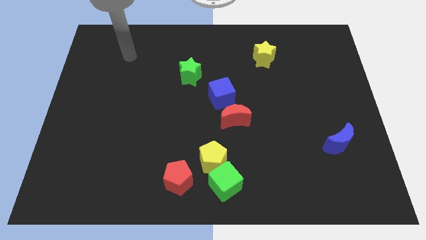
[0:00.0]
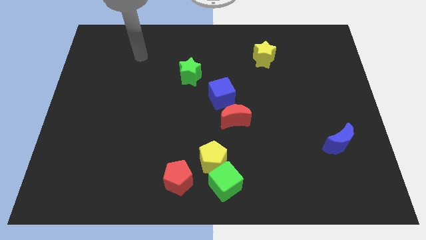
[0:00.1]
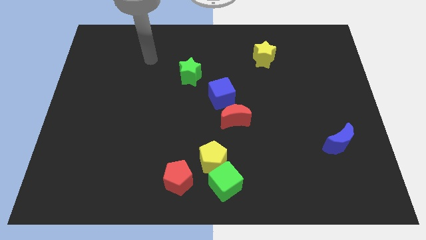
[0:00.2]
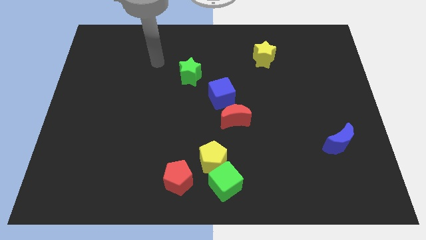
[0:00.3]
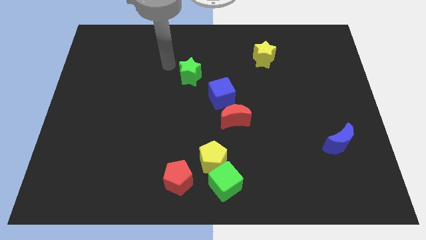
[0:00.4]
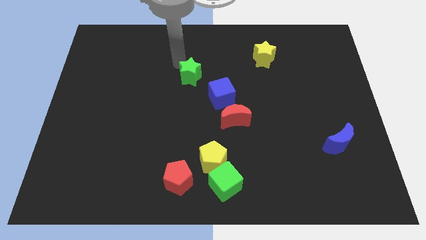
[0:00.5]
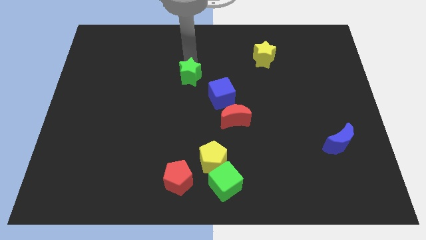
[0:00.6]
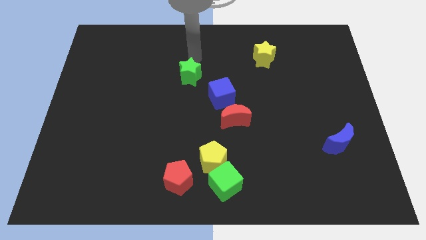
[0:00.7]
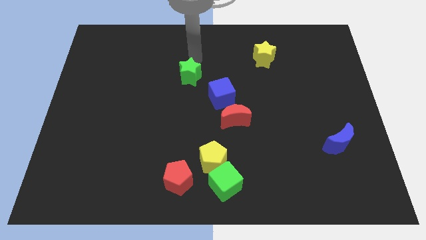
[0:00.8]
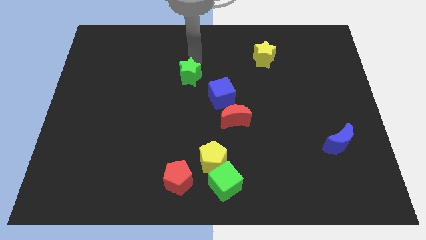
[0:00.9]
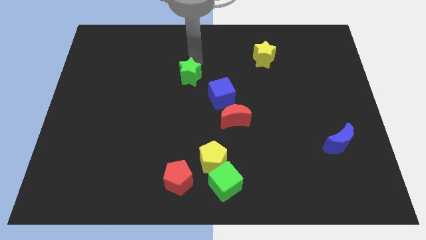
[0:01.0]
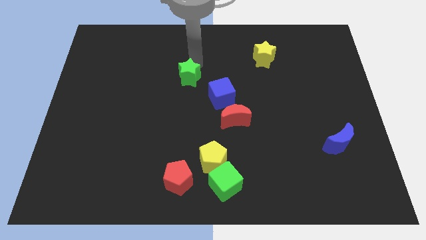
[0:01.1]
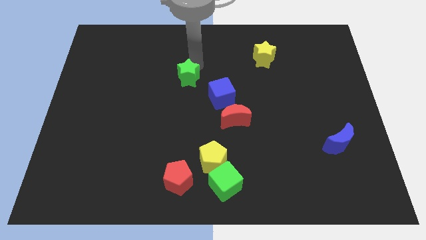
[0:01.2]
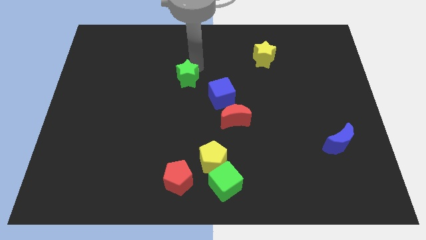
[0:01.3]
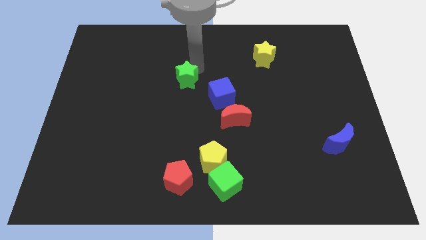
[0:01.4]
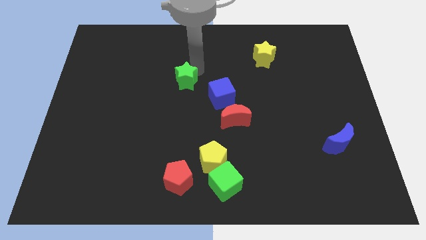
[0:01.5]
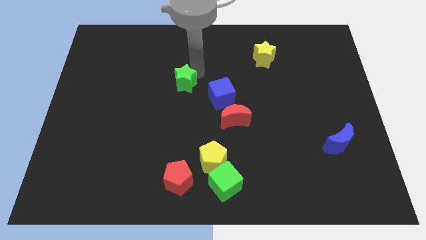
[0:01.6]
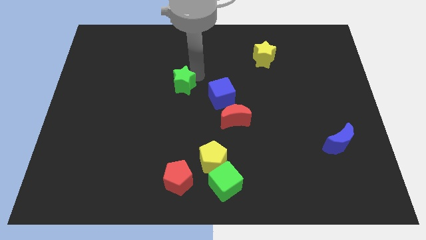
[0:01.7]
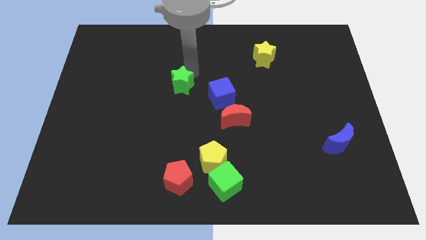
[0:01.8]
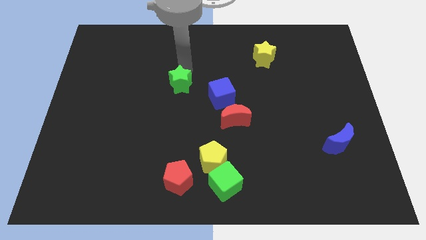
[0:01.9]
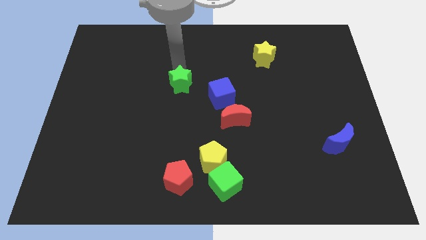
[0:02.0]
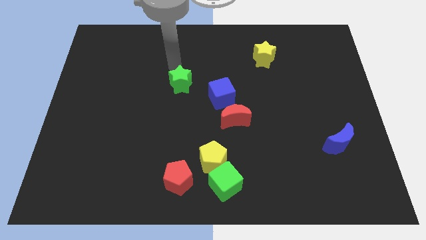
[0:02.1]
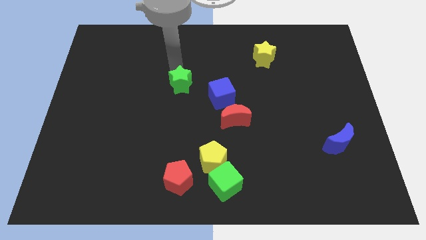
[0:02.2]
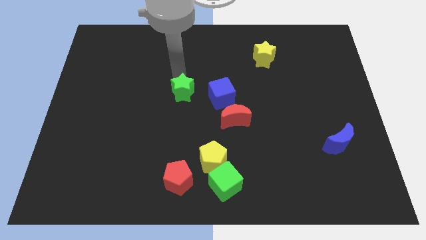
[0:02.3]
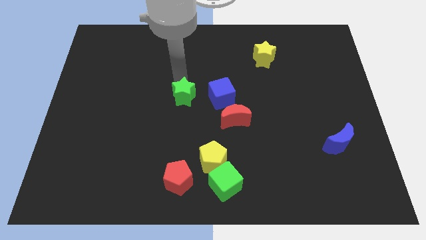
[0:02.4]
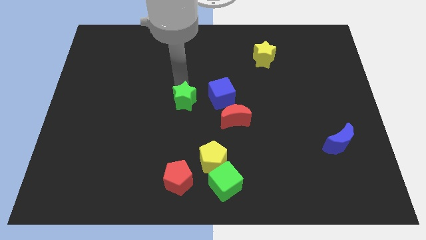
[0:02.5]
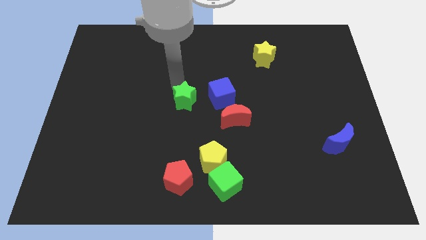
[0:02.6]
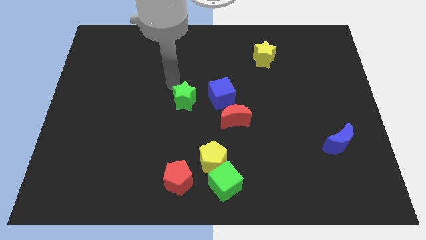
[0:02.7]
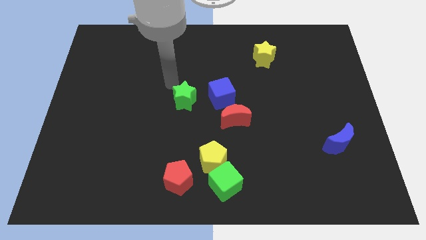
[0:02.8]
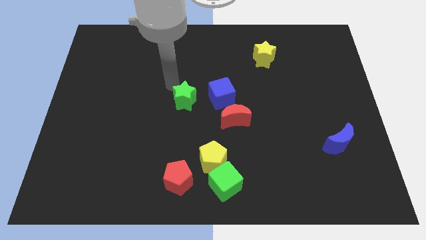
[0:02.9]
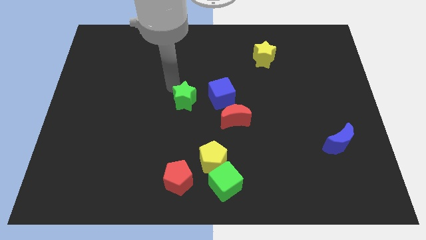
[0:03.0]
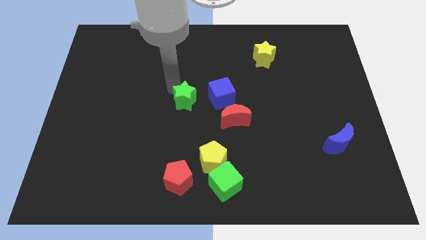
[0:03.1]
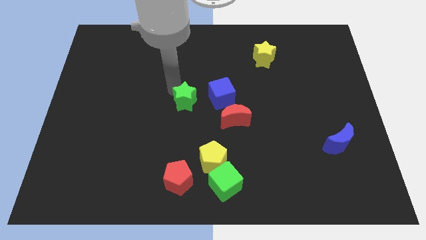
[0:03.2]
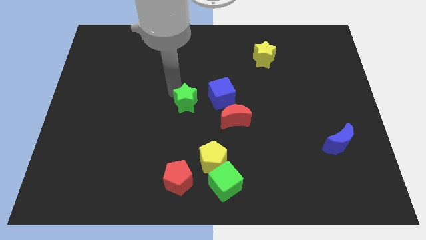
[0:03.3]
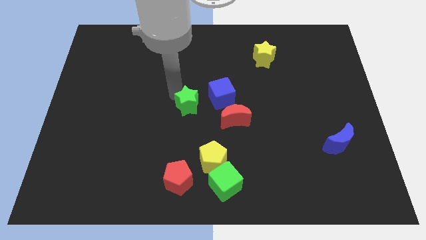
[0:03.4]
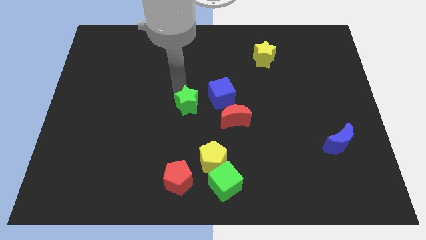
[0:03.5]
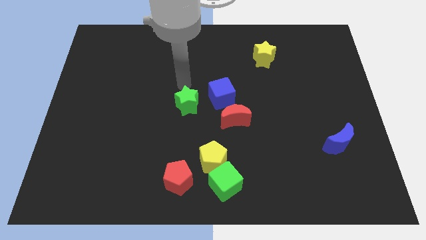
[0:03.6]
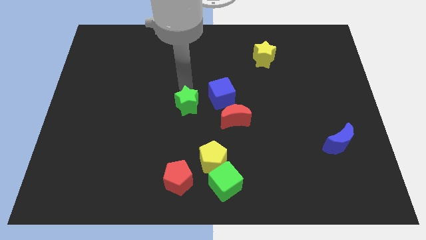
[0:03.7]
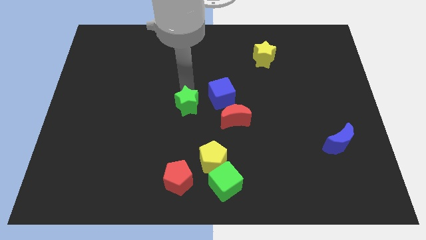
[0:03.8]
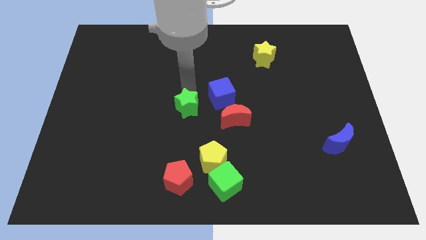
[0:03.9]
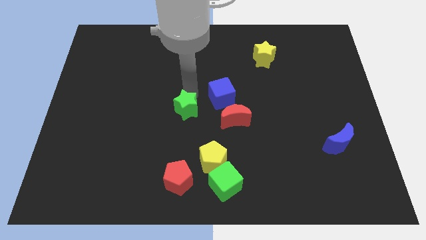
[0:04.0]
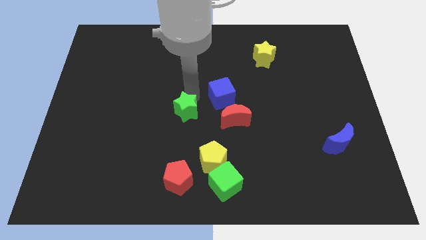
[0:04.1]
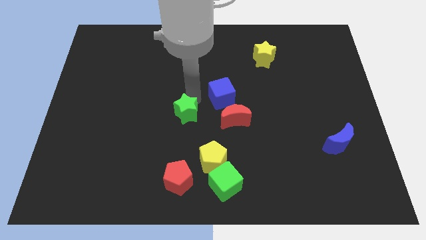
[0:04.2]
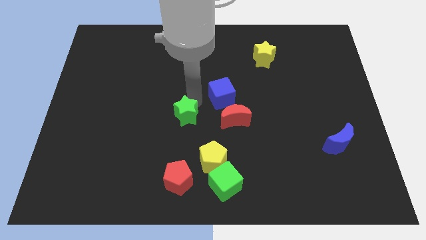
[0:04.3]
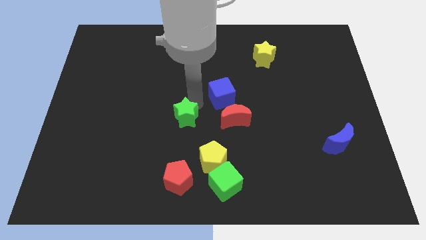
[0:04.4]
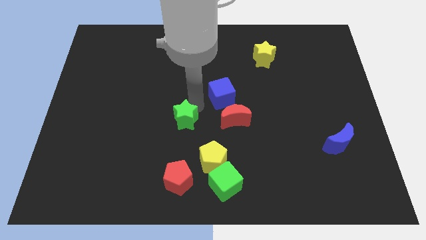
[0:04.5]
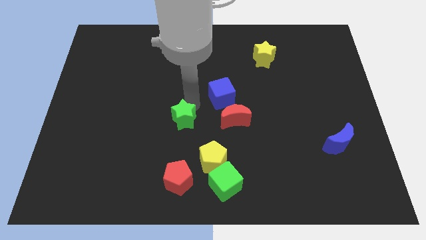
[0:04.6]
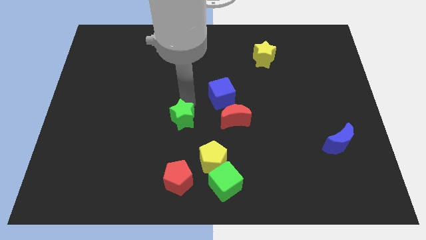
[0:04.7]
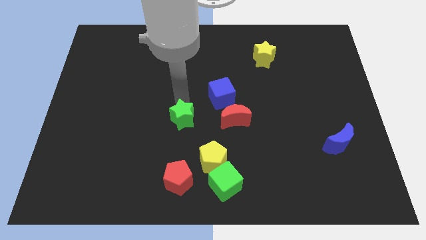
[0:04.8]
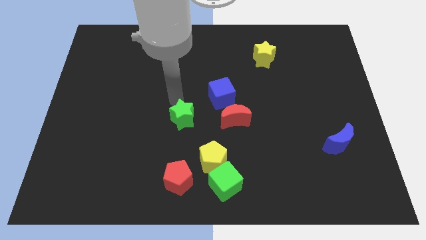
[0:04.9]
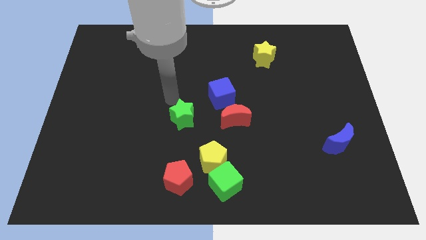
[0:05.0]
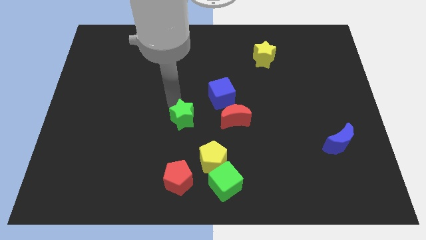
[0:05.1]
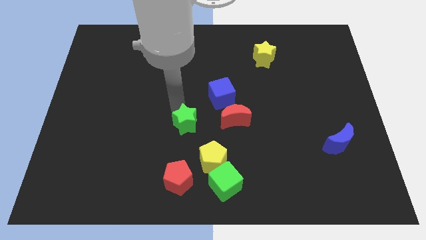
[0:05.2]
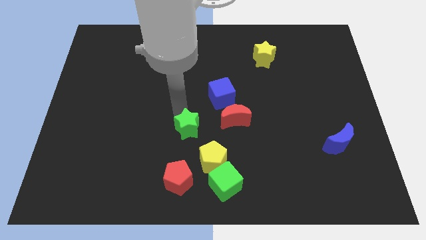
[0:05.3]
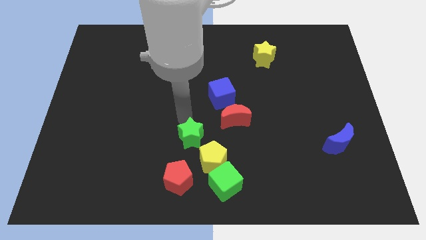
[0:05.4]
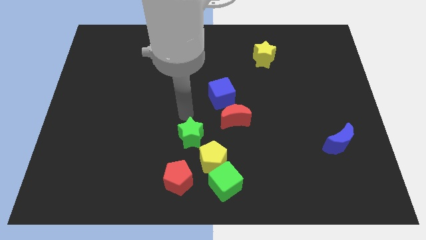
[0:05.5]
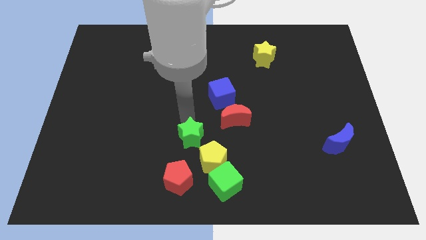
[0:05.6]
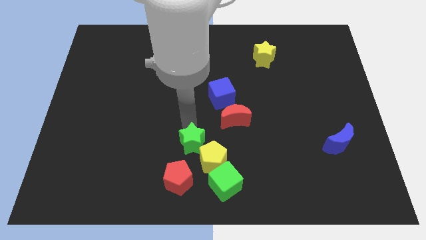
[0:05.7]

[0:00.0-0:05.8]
move the green star to the top left side of the green cube

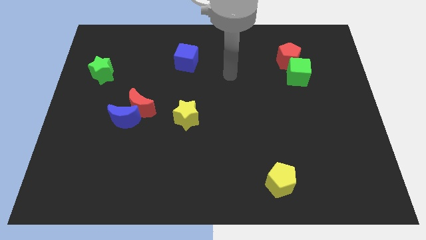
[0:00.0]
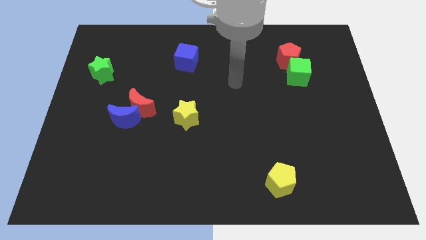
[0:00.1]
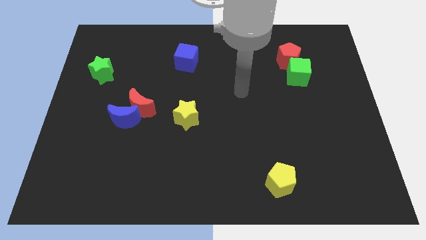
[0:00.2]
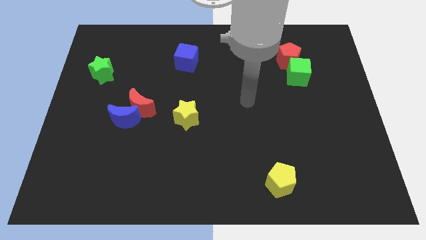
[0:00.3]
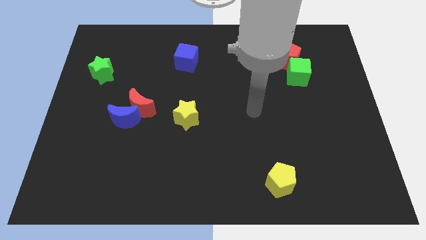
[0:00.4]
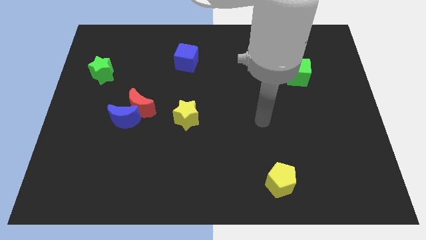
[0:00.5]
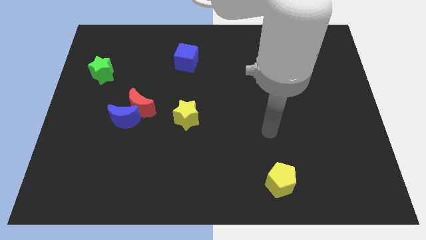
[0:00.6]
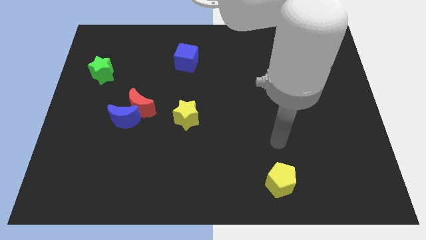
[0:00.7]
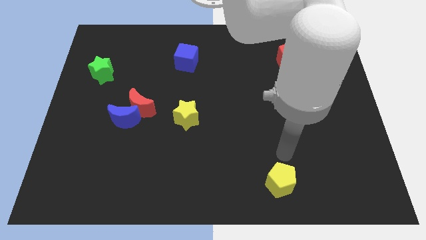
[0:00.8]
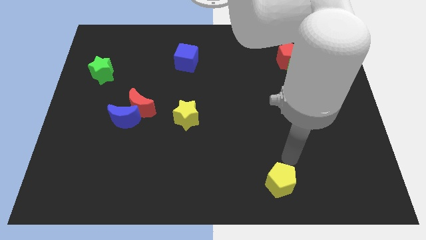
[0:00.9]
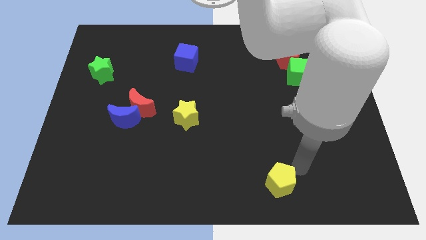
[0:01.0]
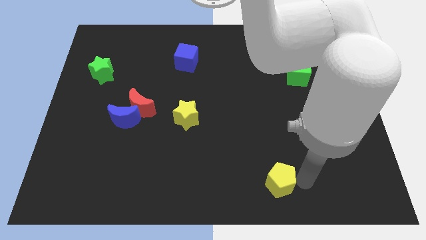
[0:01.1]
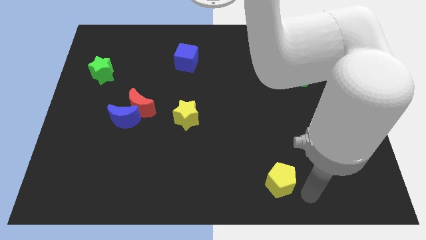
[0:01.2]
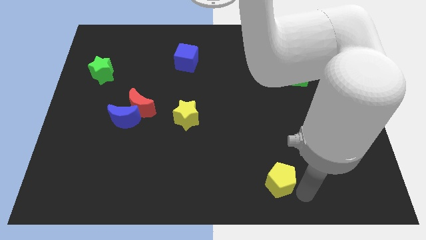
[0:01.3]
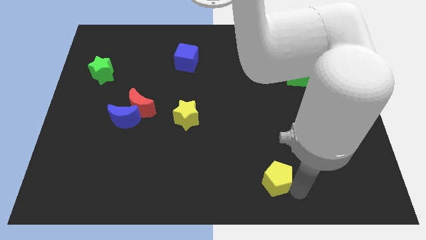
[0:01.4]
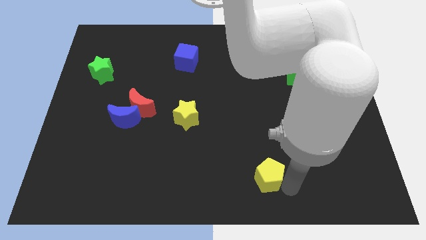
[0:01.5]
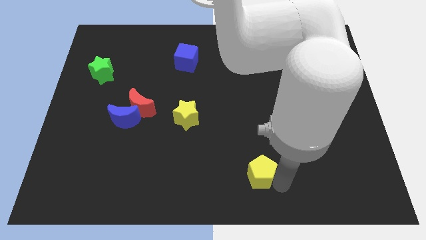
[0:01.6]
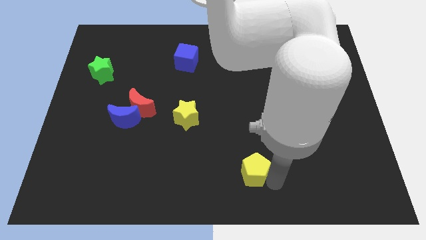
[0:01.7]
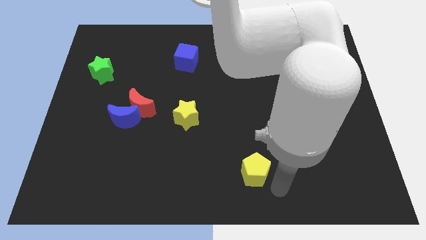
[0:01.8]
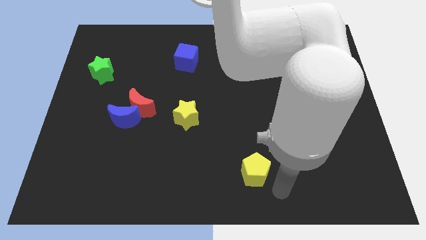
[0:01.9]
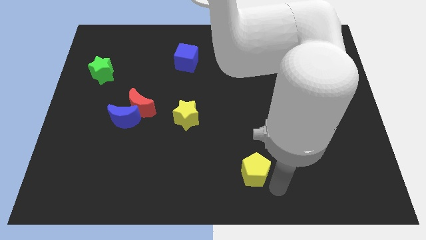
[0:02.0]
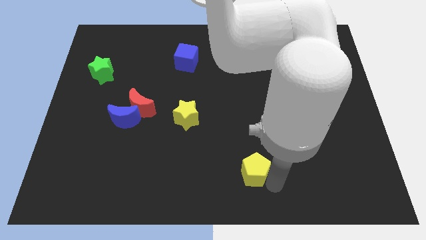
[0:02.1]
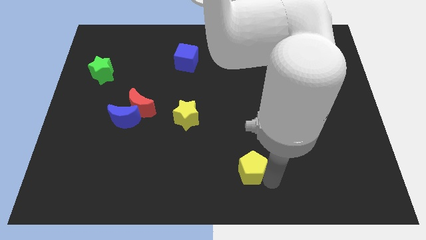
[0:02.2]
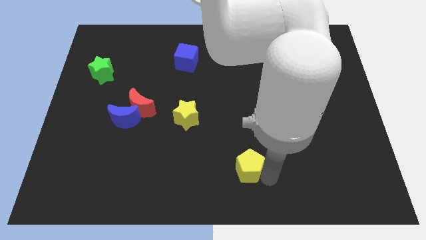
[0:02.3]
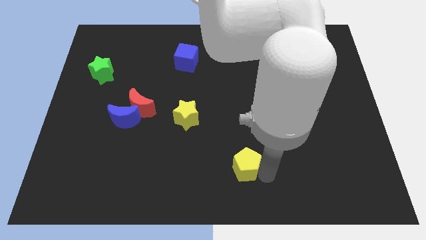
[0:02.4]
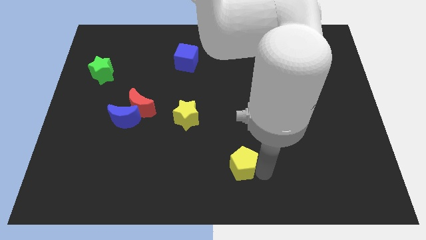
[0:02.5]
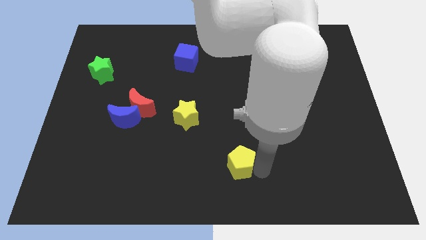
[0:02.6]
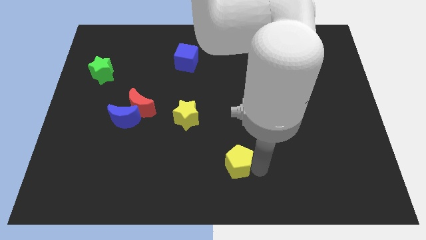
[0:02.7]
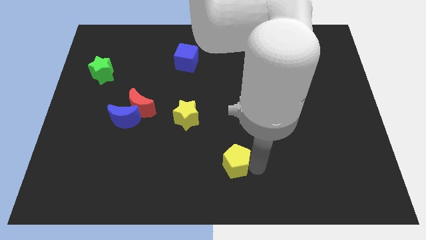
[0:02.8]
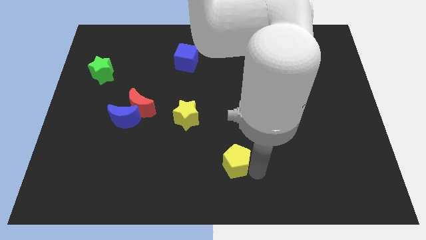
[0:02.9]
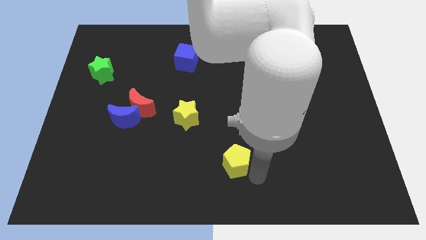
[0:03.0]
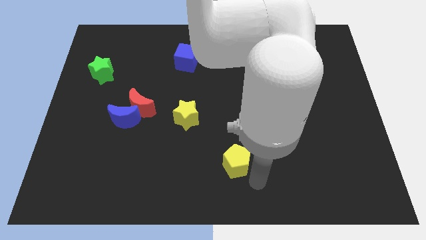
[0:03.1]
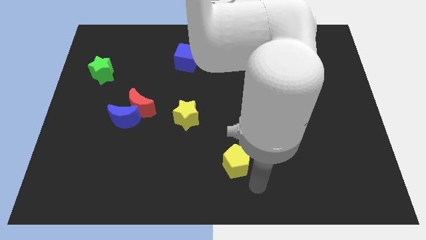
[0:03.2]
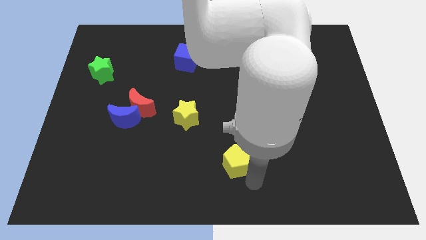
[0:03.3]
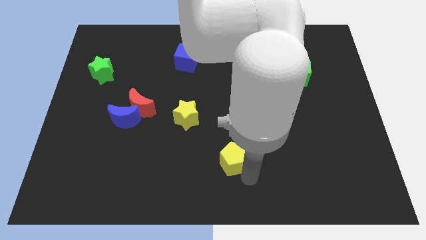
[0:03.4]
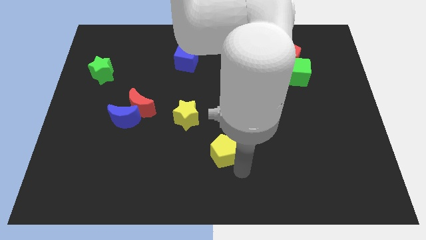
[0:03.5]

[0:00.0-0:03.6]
slide the yellow pentagon to the bottom right side of the yellow star
